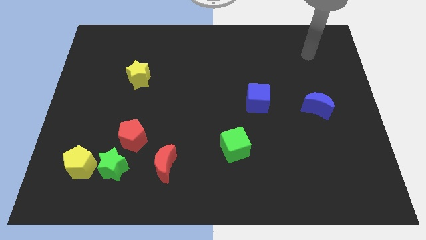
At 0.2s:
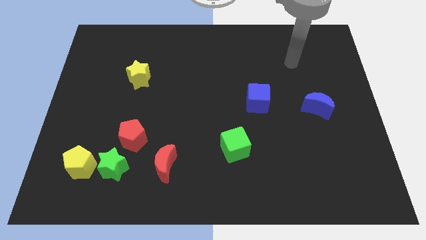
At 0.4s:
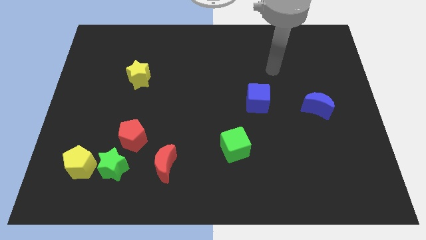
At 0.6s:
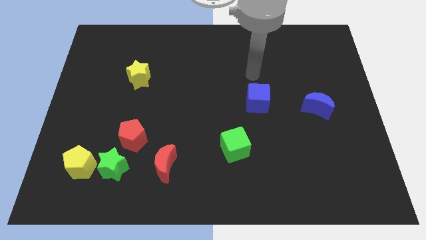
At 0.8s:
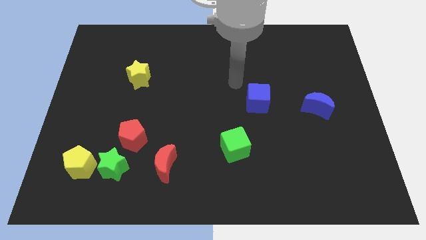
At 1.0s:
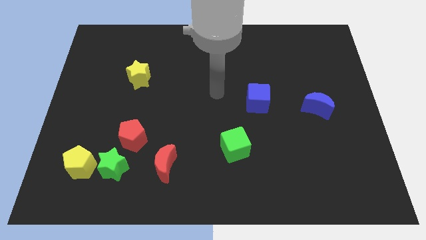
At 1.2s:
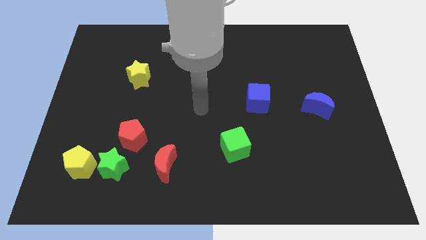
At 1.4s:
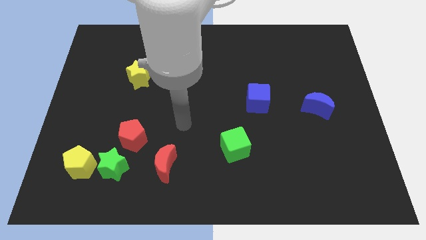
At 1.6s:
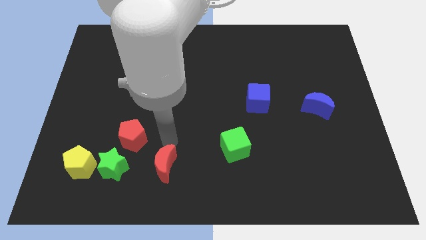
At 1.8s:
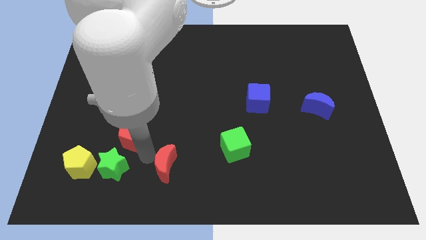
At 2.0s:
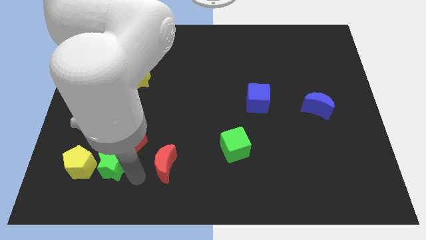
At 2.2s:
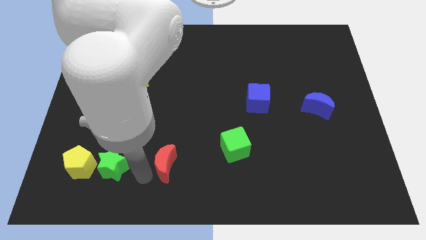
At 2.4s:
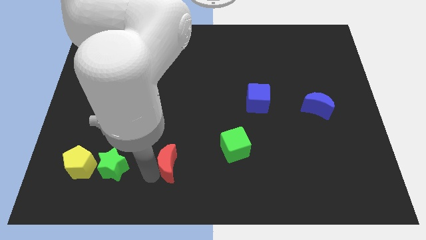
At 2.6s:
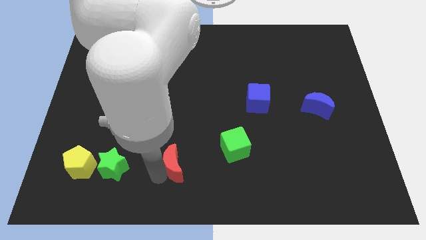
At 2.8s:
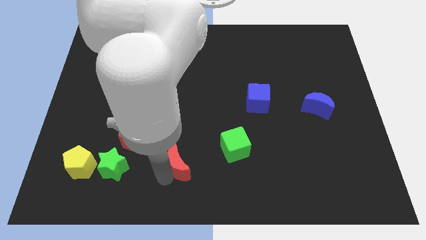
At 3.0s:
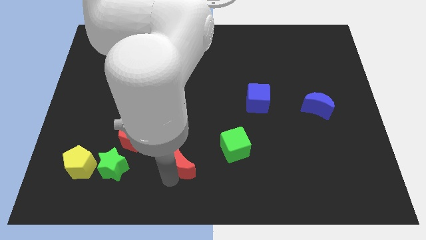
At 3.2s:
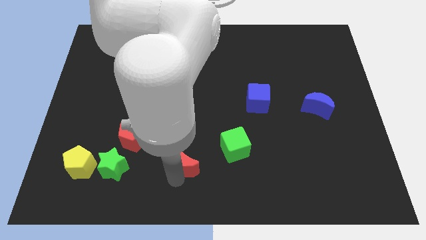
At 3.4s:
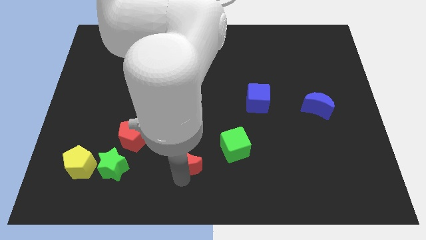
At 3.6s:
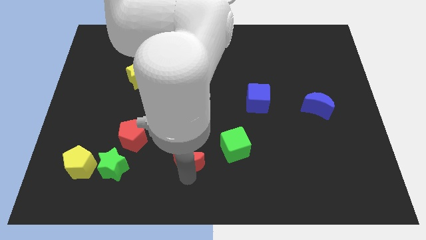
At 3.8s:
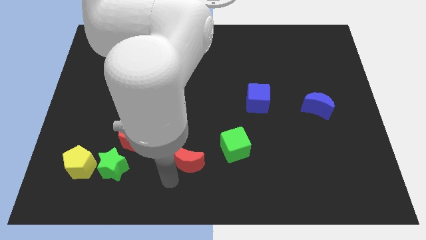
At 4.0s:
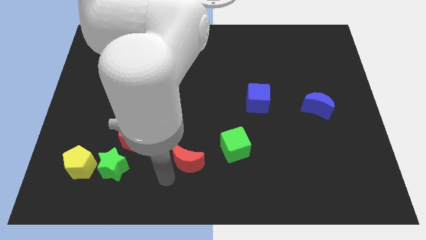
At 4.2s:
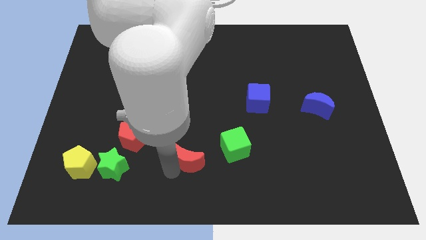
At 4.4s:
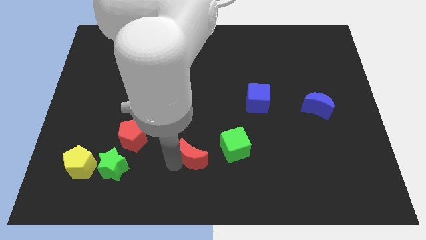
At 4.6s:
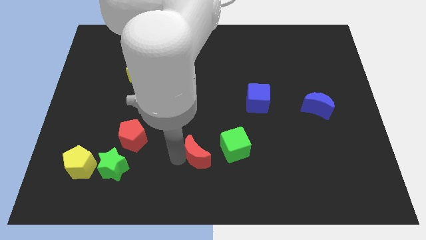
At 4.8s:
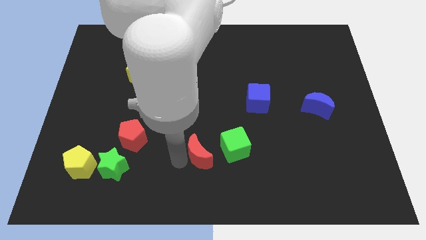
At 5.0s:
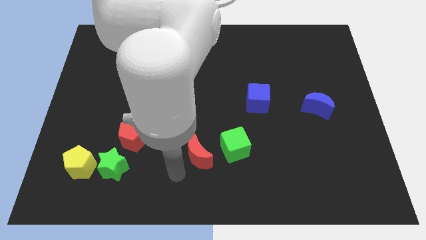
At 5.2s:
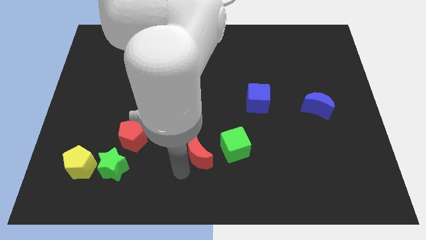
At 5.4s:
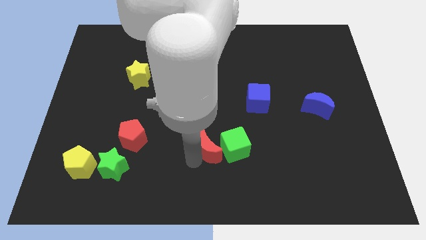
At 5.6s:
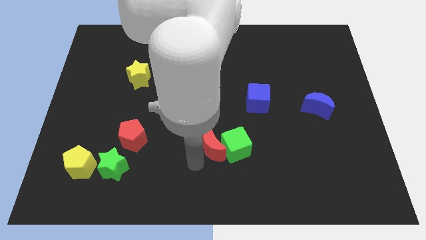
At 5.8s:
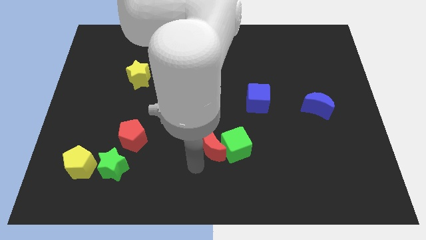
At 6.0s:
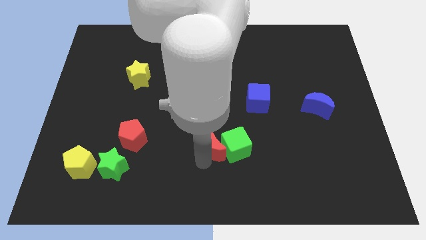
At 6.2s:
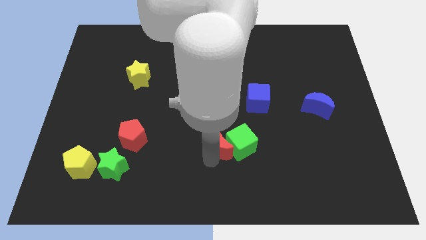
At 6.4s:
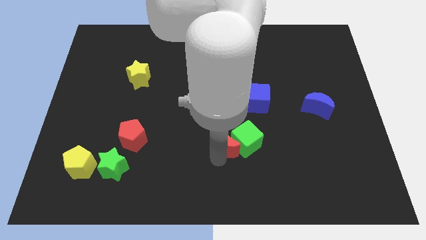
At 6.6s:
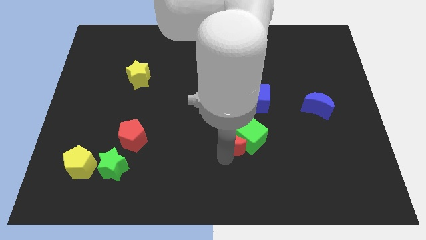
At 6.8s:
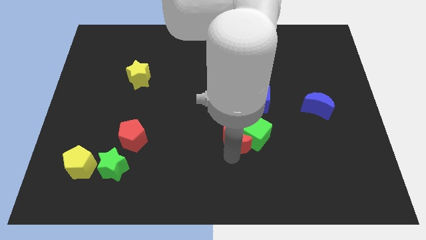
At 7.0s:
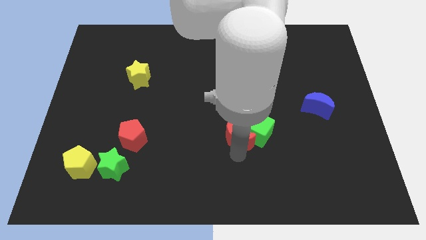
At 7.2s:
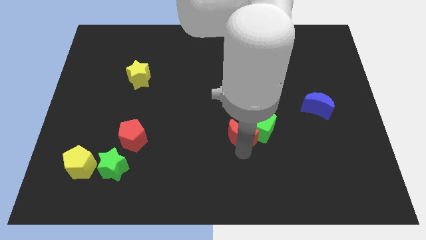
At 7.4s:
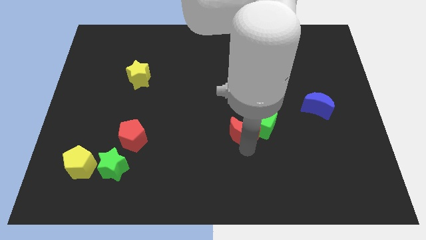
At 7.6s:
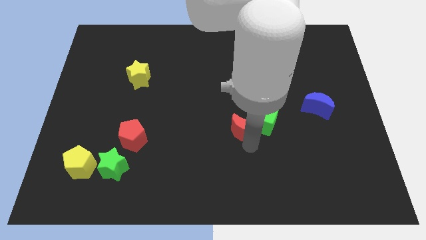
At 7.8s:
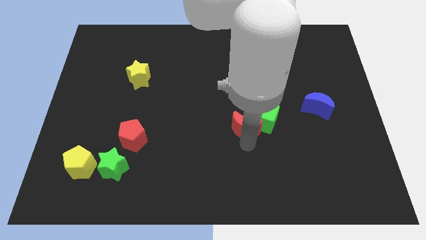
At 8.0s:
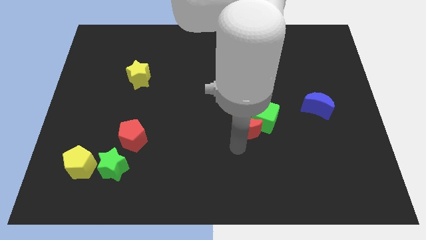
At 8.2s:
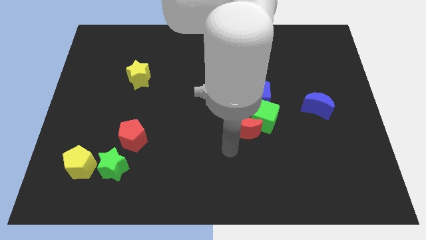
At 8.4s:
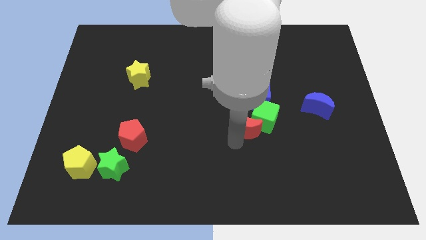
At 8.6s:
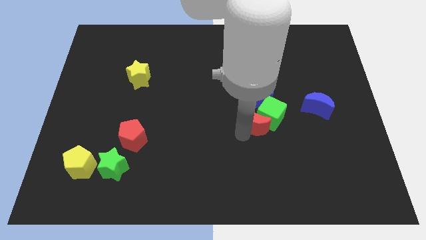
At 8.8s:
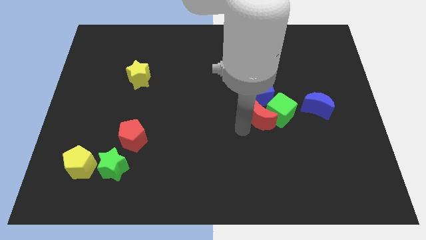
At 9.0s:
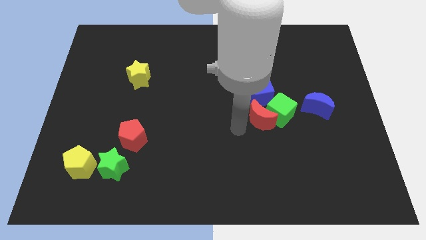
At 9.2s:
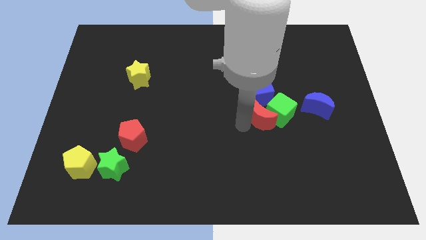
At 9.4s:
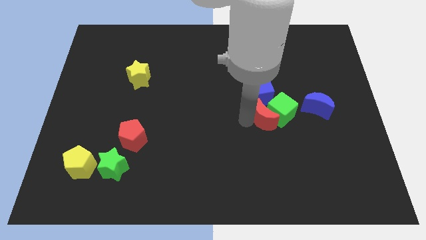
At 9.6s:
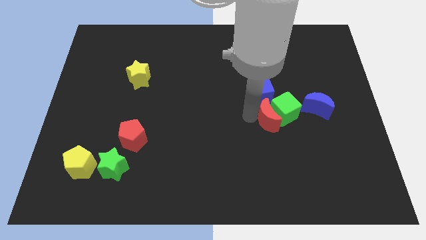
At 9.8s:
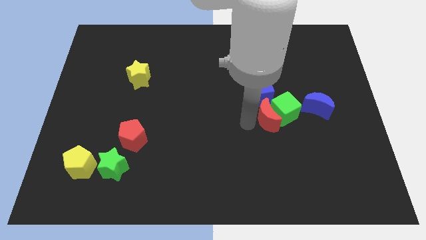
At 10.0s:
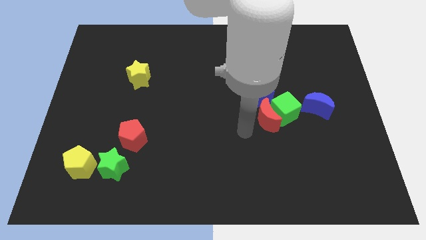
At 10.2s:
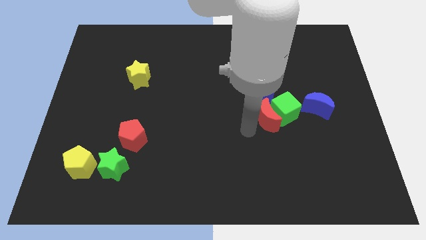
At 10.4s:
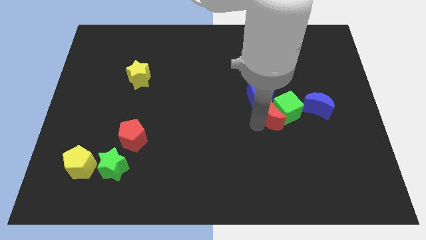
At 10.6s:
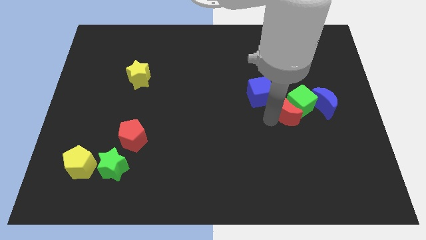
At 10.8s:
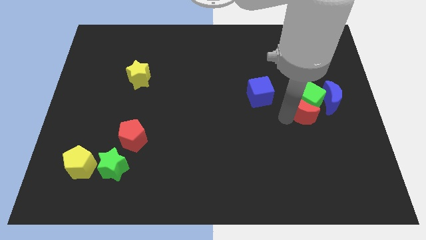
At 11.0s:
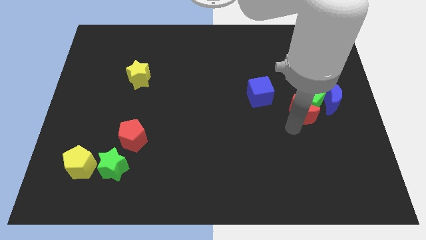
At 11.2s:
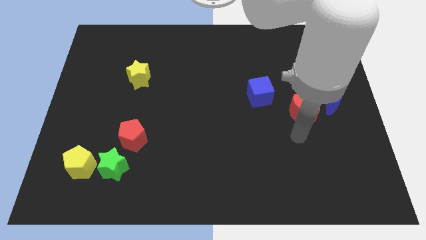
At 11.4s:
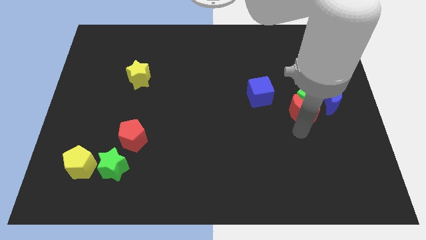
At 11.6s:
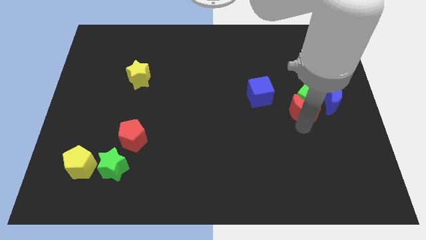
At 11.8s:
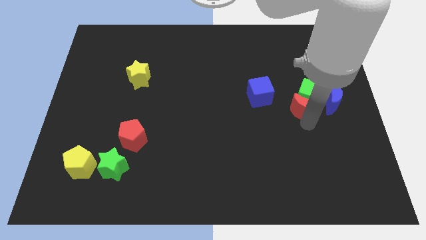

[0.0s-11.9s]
move the red moon just right of the blue cube

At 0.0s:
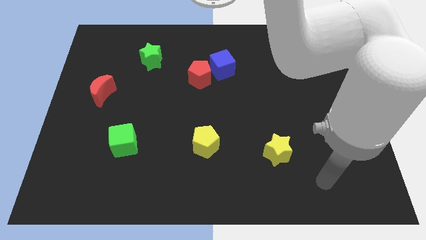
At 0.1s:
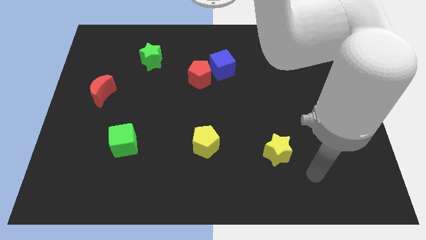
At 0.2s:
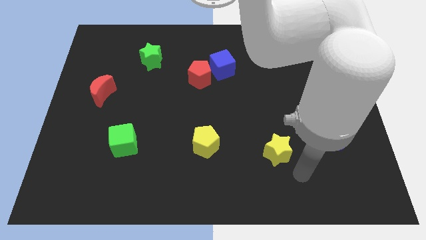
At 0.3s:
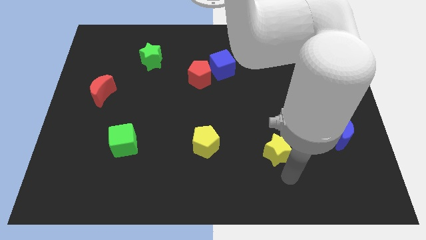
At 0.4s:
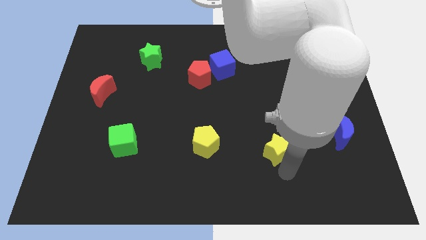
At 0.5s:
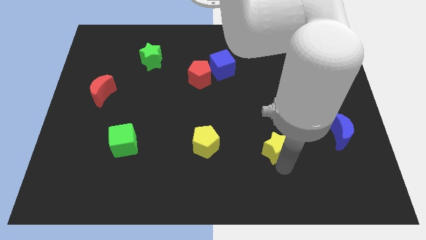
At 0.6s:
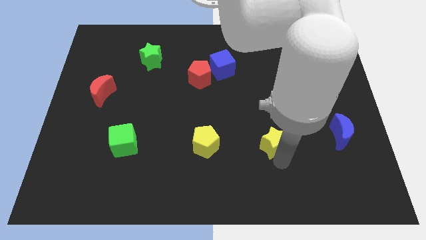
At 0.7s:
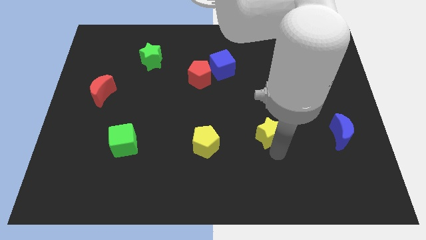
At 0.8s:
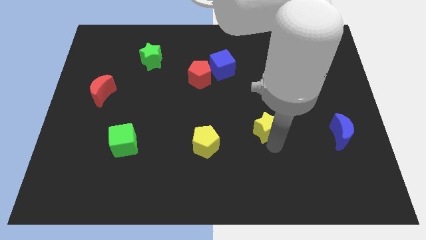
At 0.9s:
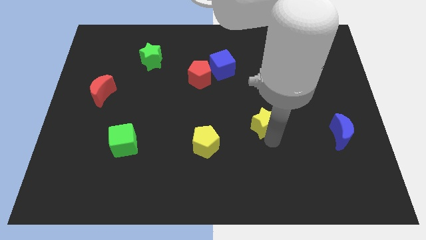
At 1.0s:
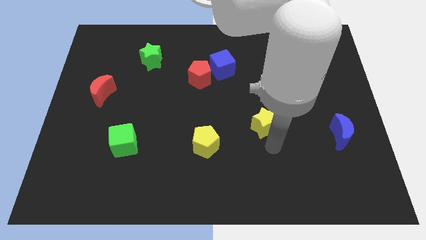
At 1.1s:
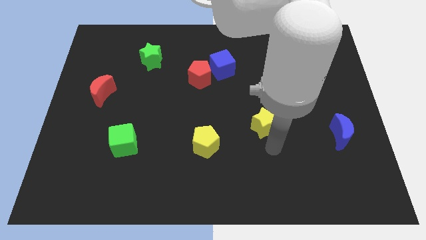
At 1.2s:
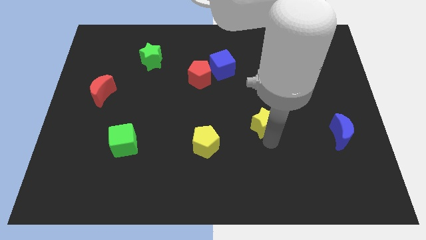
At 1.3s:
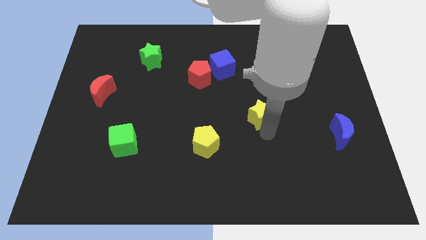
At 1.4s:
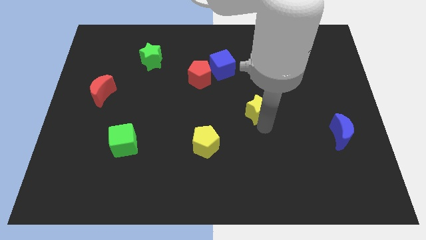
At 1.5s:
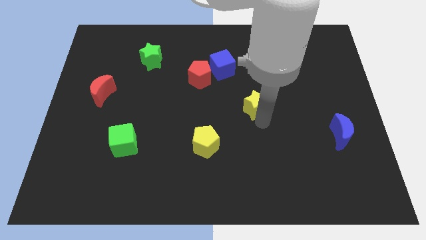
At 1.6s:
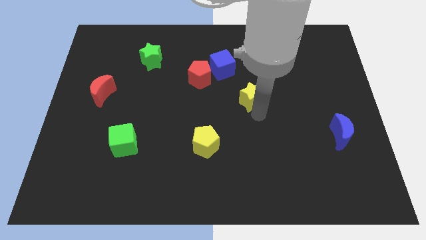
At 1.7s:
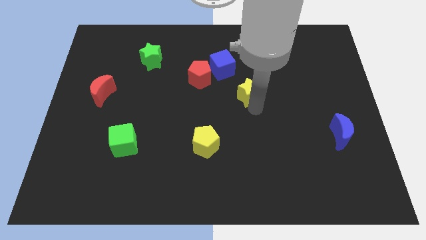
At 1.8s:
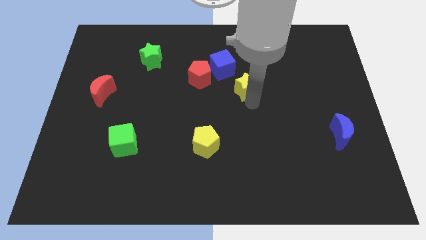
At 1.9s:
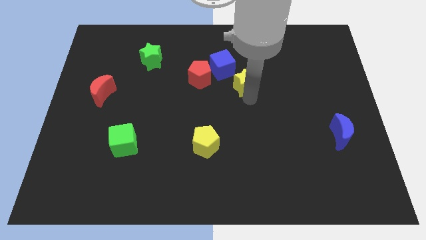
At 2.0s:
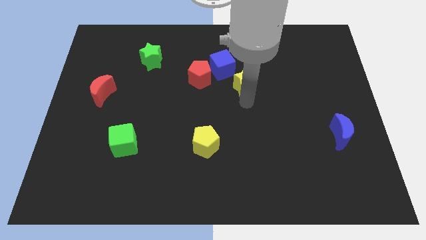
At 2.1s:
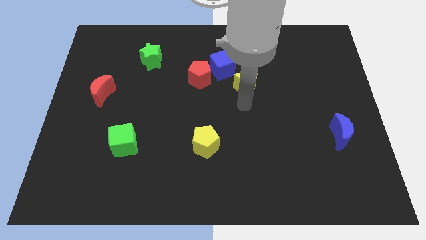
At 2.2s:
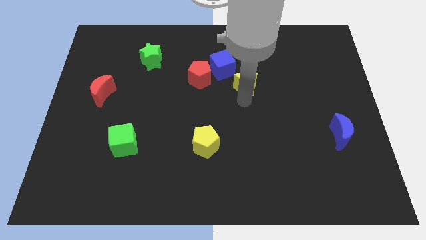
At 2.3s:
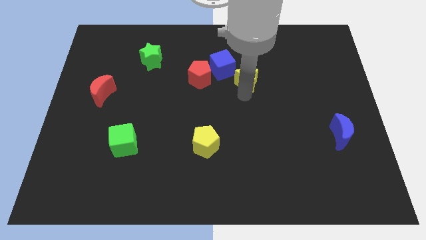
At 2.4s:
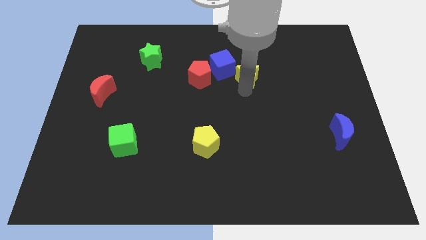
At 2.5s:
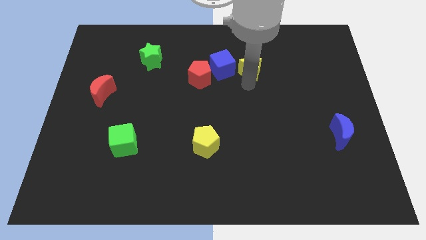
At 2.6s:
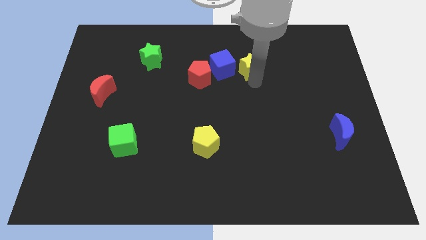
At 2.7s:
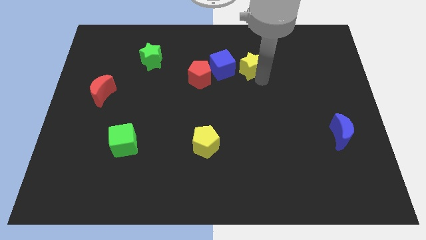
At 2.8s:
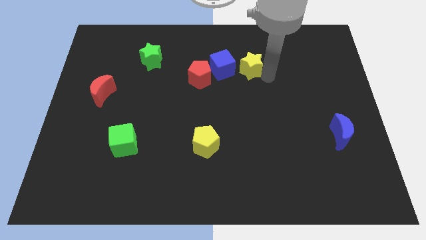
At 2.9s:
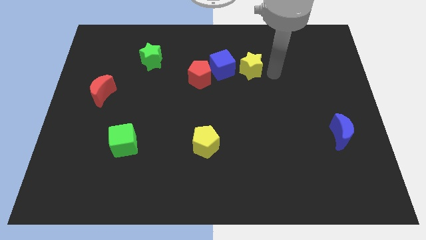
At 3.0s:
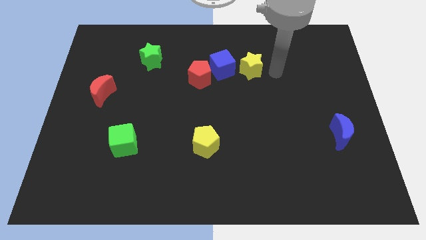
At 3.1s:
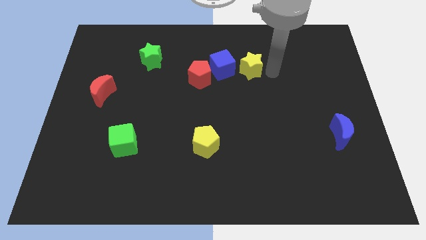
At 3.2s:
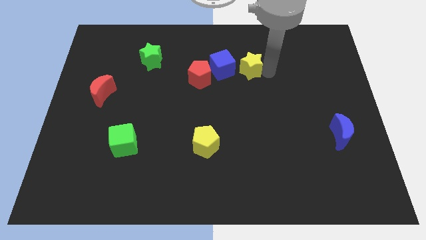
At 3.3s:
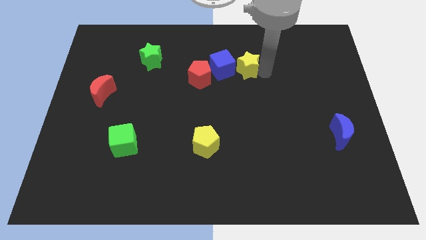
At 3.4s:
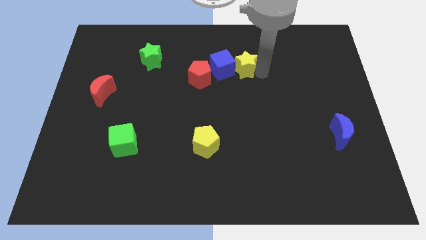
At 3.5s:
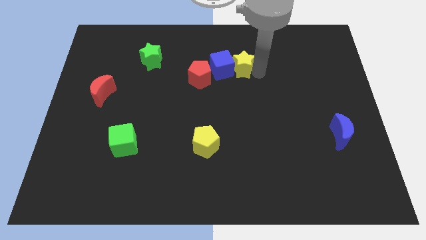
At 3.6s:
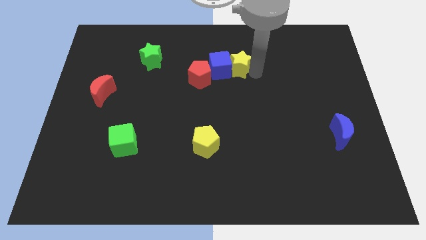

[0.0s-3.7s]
put the yellow star diagonally up and to the right of the red pentagon
